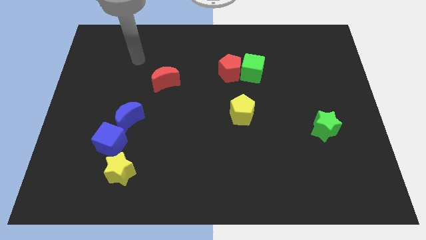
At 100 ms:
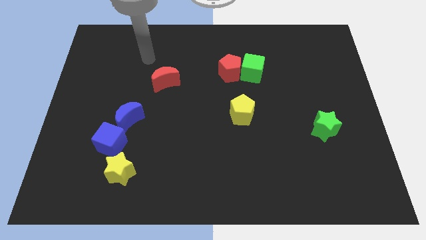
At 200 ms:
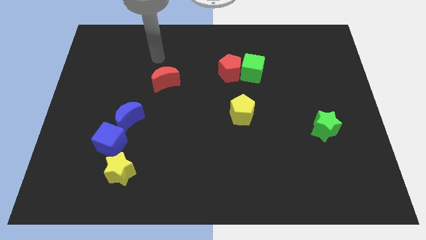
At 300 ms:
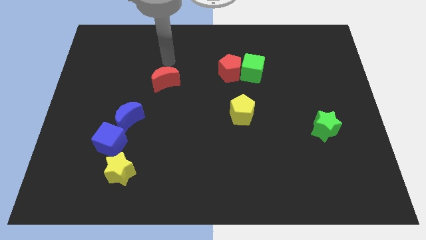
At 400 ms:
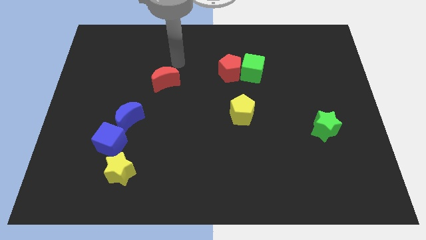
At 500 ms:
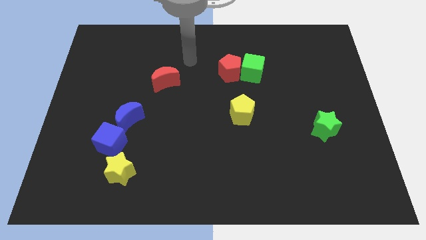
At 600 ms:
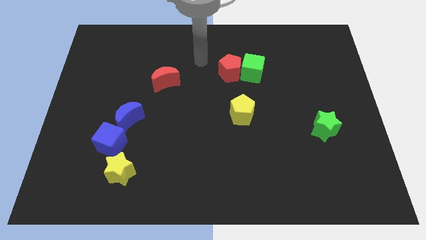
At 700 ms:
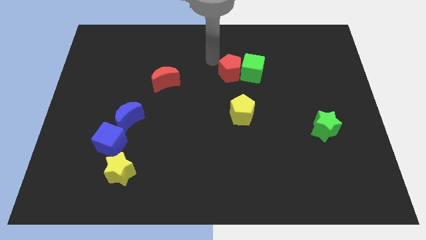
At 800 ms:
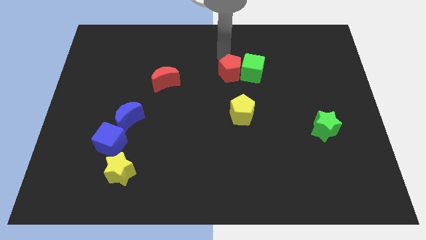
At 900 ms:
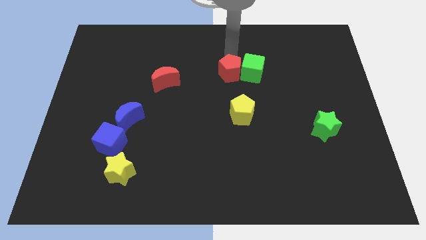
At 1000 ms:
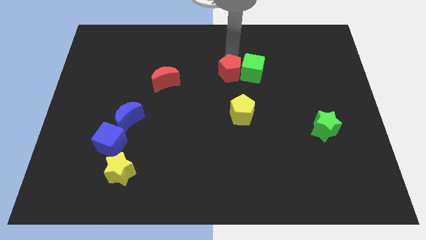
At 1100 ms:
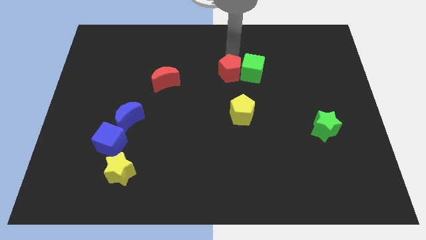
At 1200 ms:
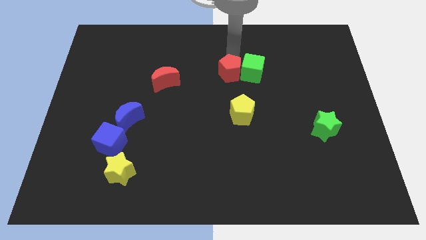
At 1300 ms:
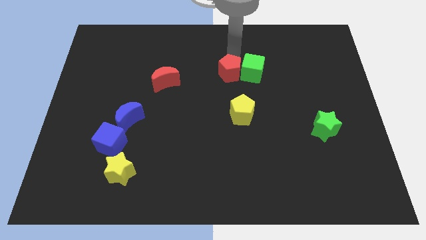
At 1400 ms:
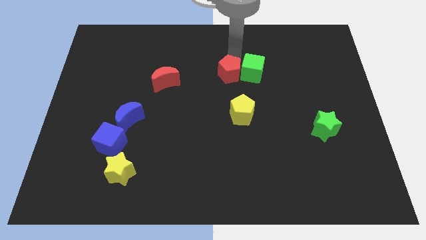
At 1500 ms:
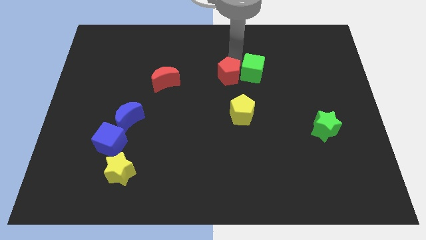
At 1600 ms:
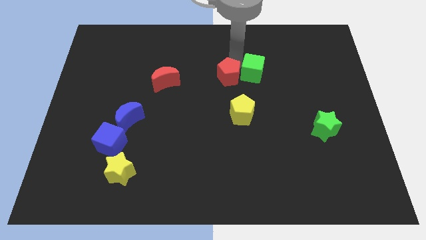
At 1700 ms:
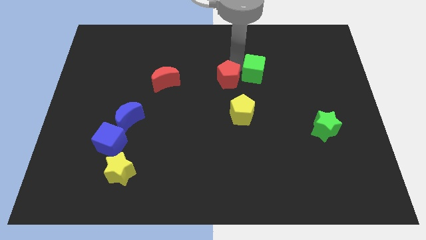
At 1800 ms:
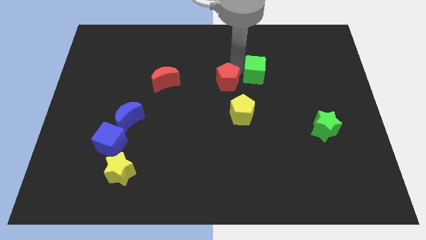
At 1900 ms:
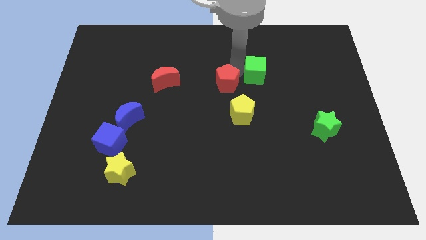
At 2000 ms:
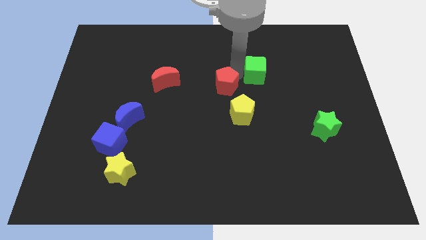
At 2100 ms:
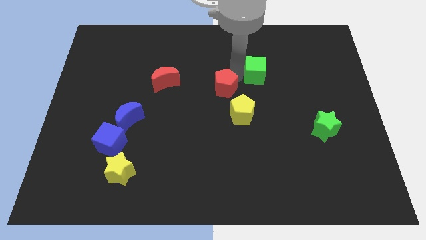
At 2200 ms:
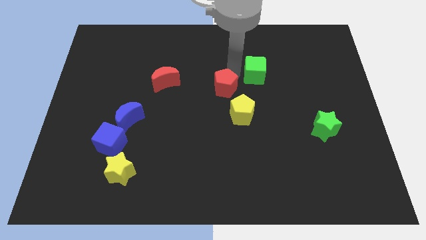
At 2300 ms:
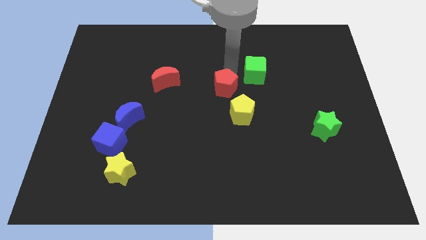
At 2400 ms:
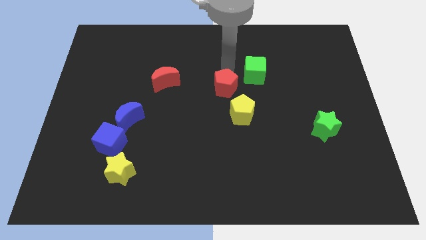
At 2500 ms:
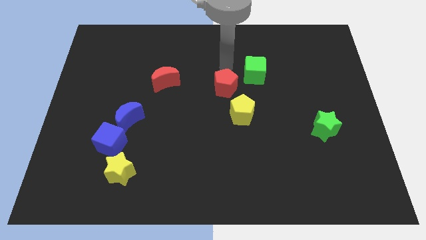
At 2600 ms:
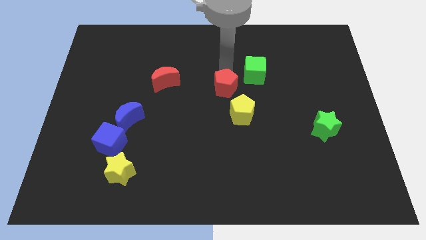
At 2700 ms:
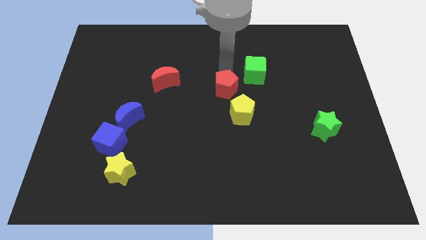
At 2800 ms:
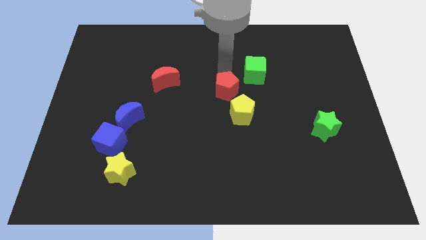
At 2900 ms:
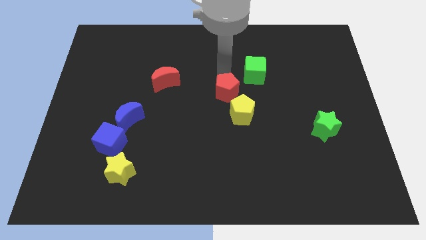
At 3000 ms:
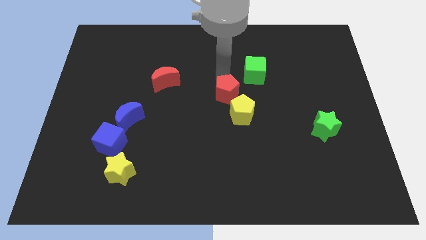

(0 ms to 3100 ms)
slightly push the red pentagon downwards

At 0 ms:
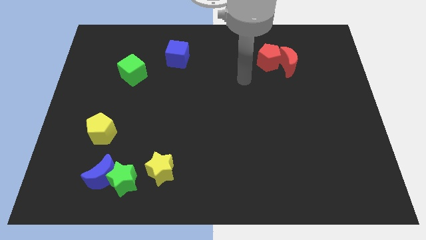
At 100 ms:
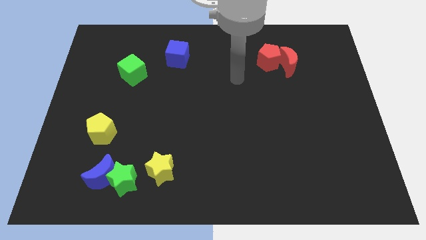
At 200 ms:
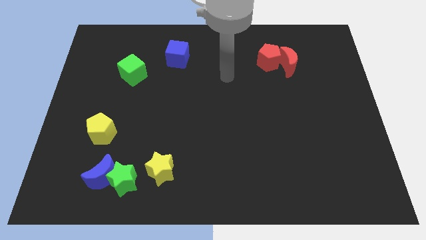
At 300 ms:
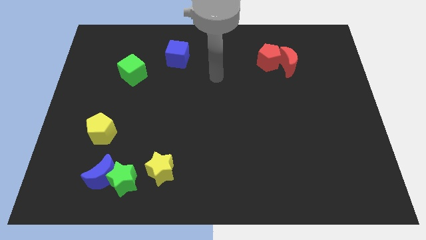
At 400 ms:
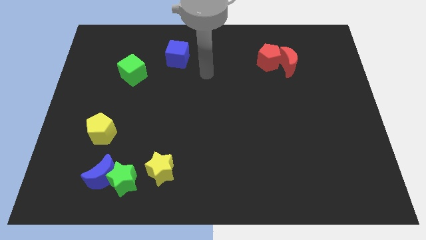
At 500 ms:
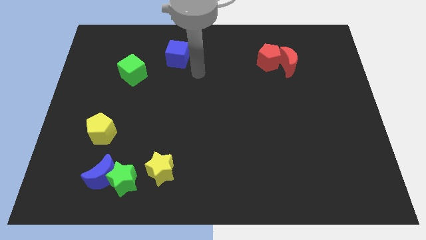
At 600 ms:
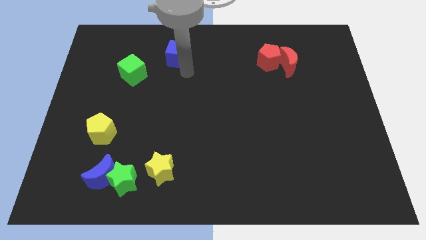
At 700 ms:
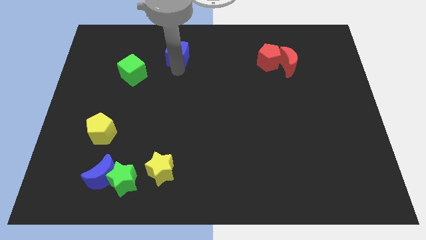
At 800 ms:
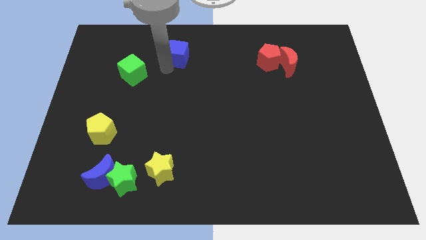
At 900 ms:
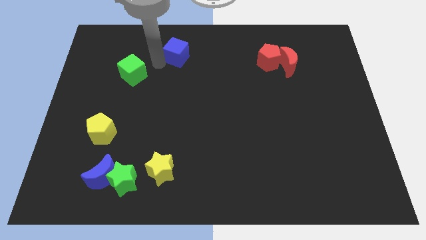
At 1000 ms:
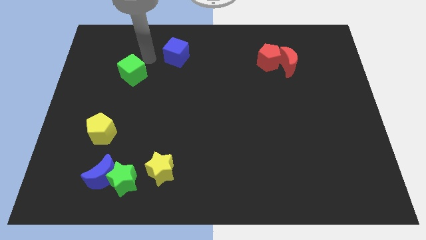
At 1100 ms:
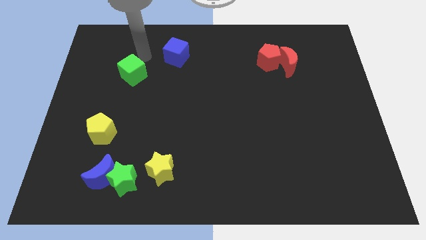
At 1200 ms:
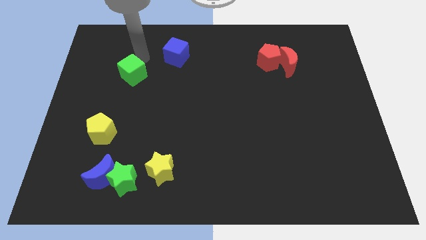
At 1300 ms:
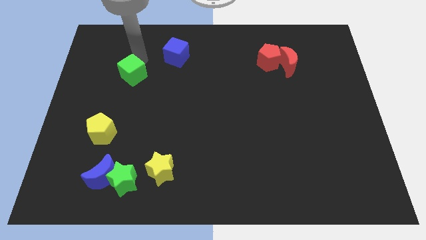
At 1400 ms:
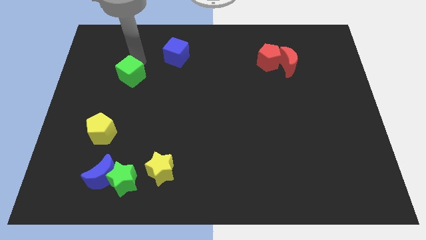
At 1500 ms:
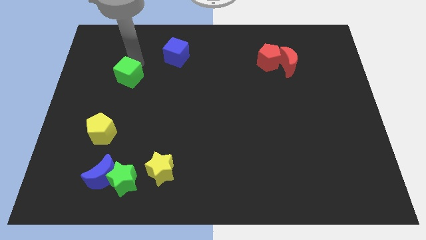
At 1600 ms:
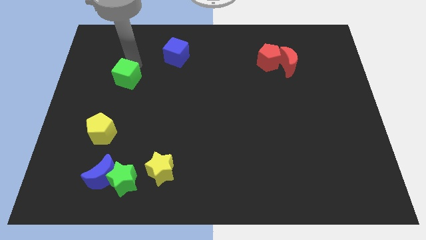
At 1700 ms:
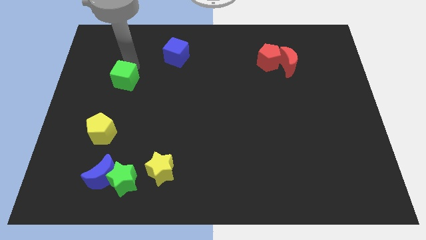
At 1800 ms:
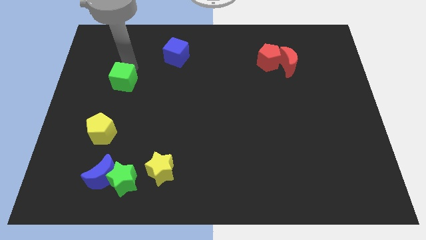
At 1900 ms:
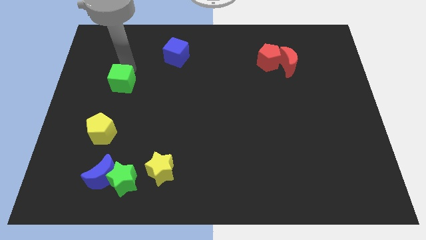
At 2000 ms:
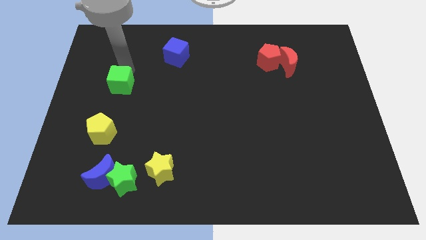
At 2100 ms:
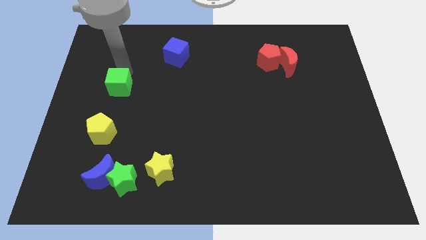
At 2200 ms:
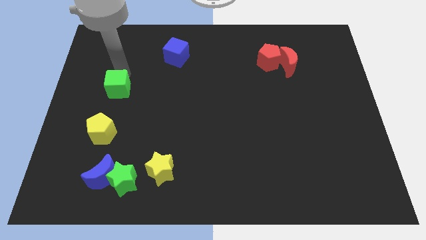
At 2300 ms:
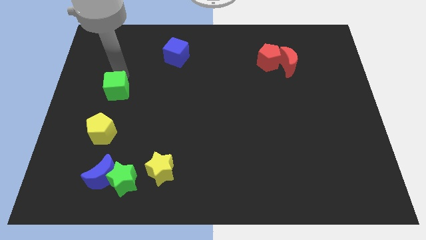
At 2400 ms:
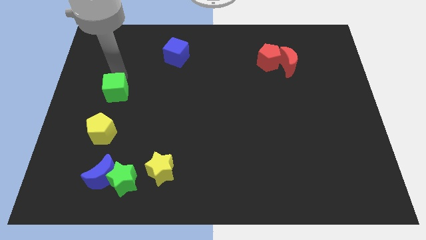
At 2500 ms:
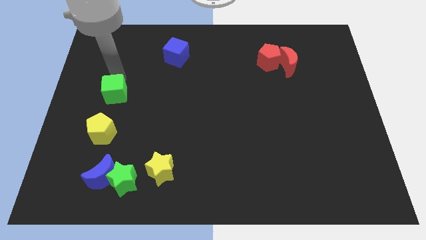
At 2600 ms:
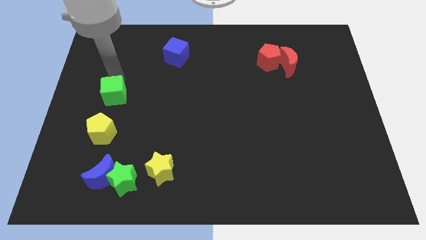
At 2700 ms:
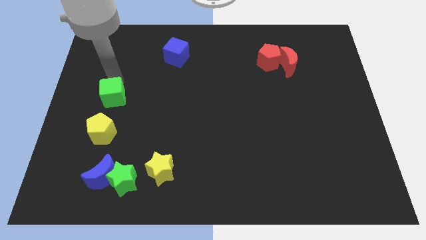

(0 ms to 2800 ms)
slide the green cube downwards a bit

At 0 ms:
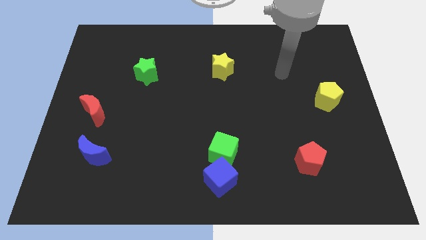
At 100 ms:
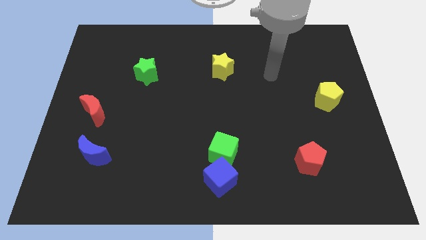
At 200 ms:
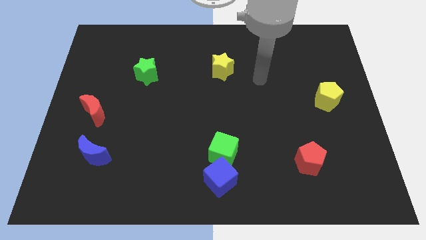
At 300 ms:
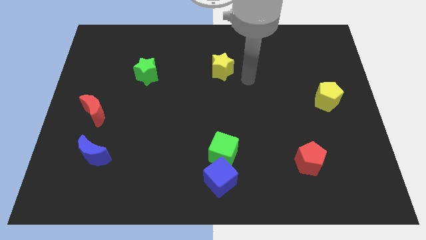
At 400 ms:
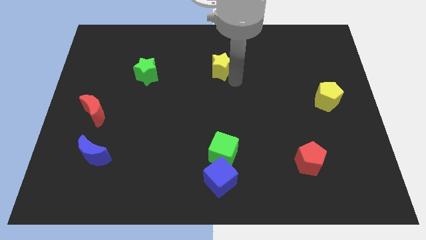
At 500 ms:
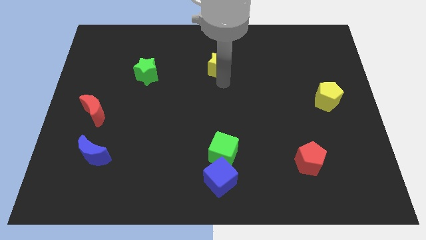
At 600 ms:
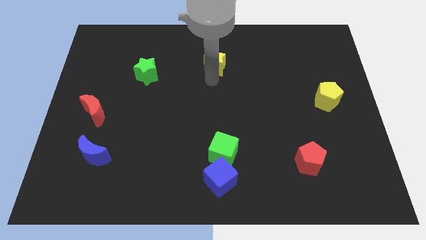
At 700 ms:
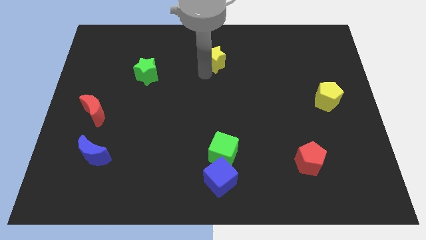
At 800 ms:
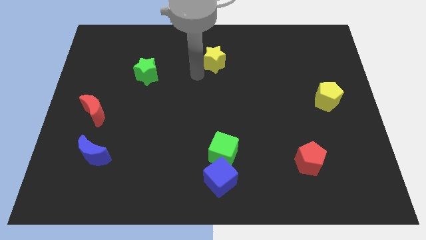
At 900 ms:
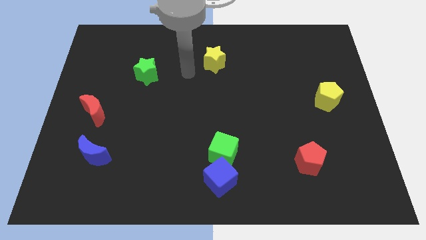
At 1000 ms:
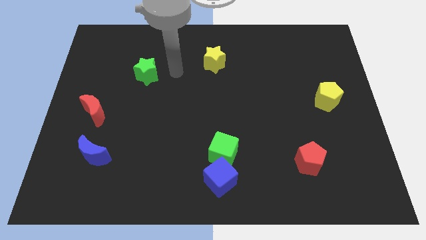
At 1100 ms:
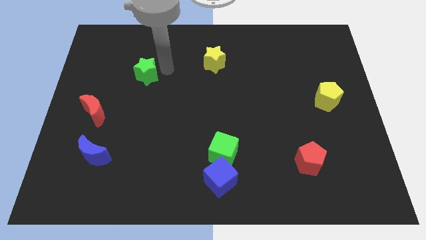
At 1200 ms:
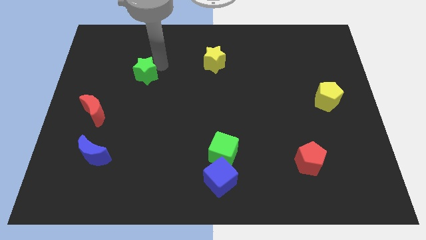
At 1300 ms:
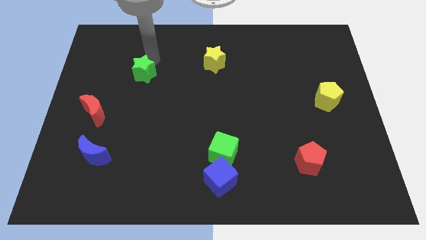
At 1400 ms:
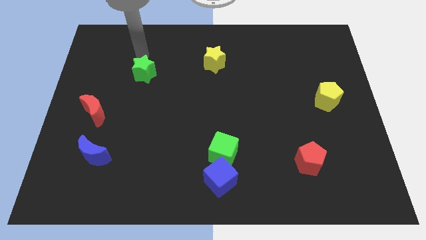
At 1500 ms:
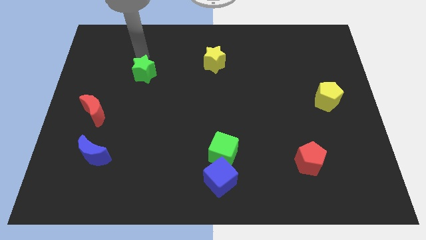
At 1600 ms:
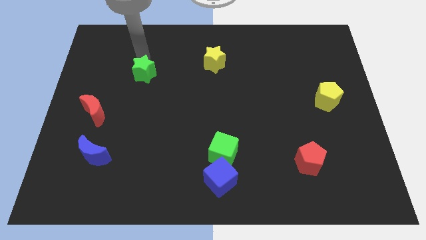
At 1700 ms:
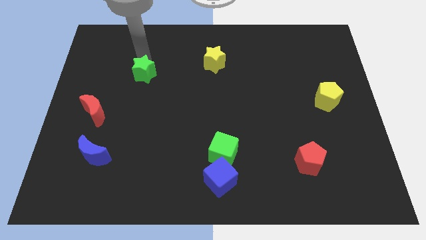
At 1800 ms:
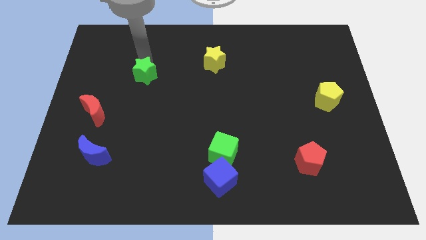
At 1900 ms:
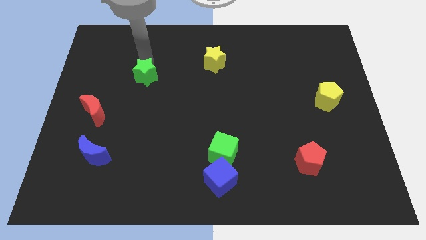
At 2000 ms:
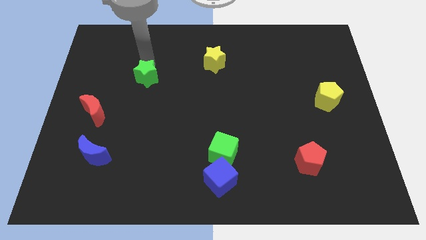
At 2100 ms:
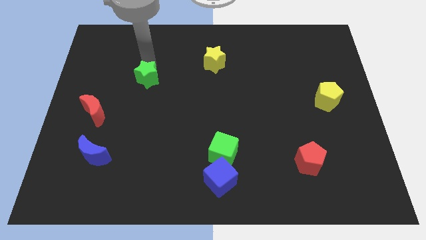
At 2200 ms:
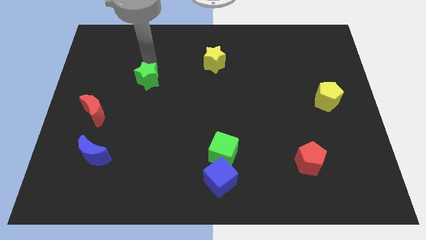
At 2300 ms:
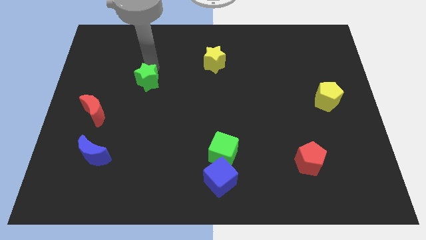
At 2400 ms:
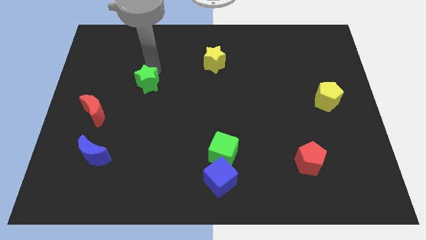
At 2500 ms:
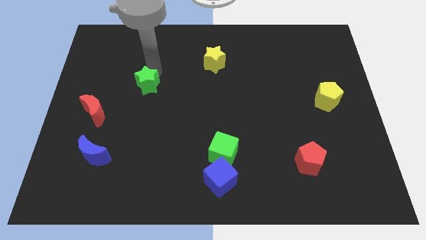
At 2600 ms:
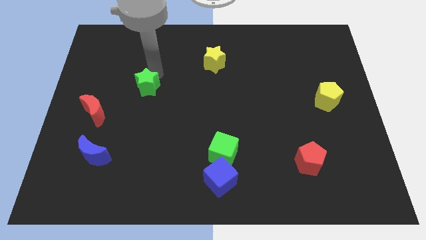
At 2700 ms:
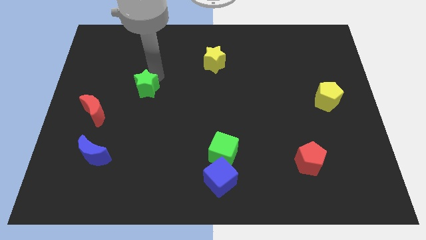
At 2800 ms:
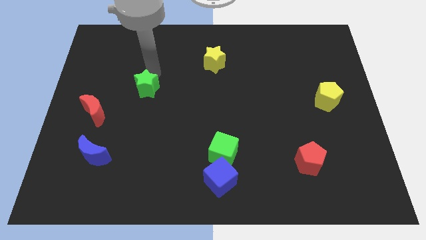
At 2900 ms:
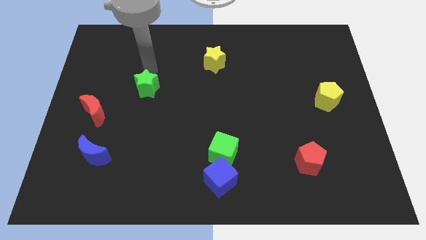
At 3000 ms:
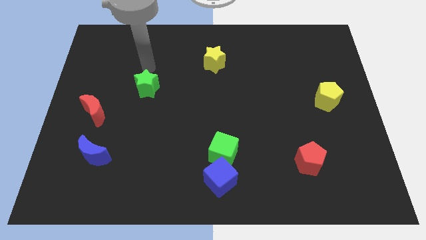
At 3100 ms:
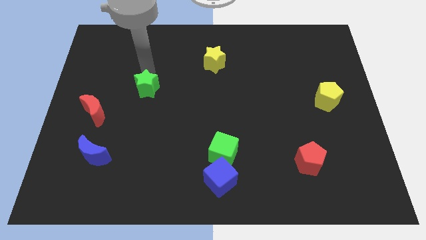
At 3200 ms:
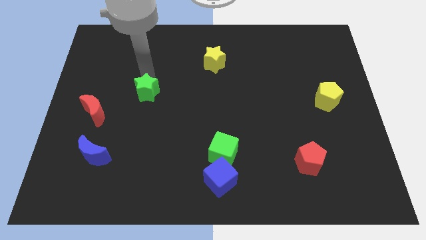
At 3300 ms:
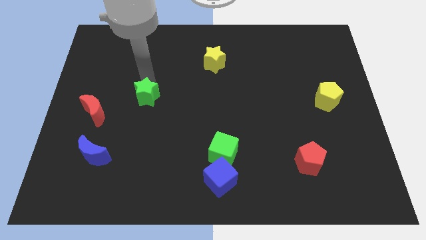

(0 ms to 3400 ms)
slide the green star downwards slightly
